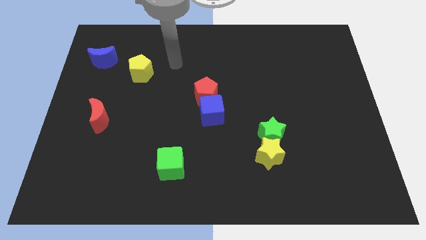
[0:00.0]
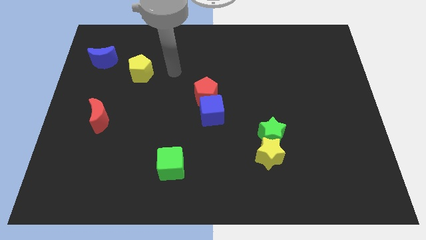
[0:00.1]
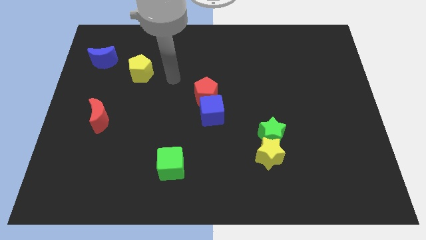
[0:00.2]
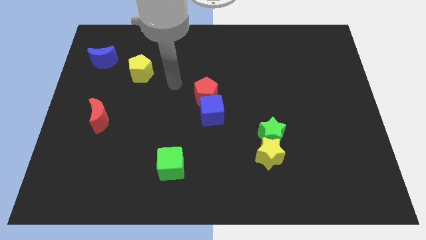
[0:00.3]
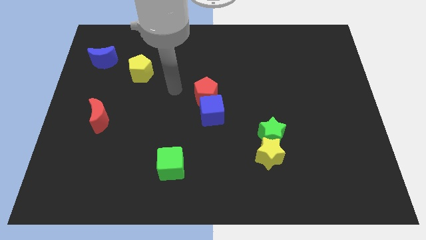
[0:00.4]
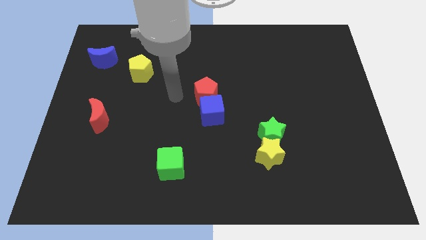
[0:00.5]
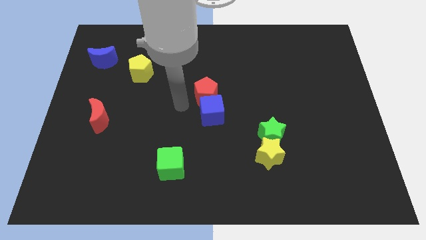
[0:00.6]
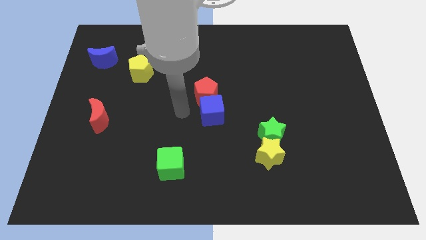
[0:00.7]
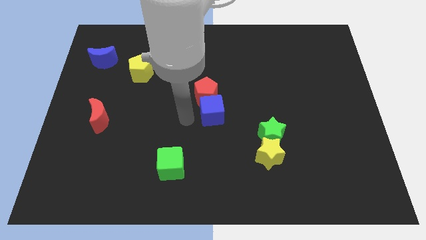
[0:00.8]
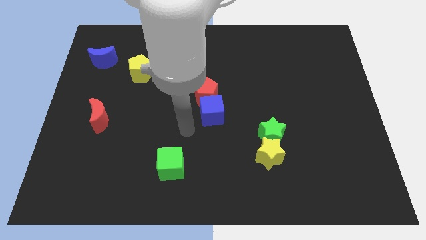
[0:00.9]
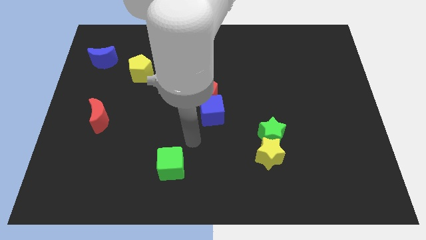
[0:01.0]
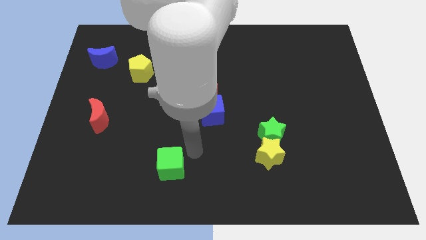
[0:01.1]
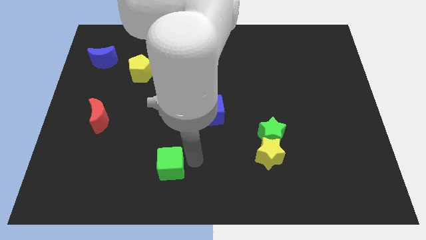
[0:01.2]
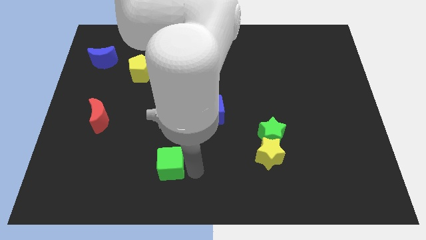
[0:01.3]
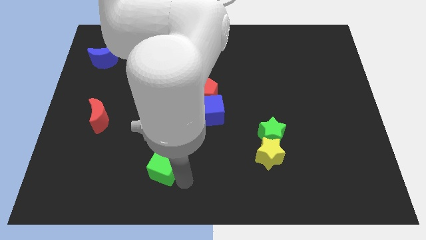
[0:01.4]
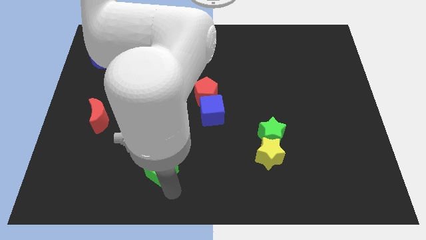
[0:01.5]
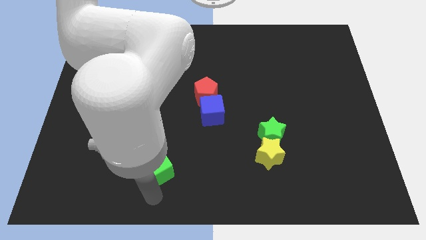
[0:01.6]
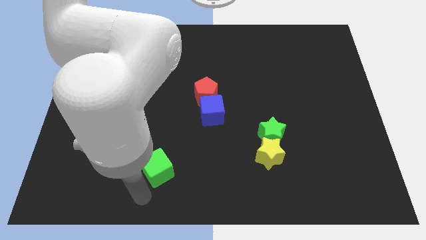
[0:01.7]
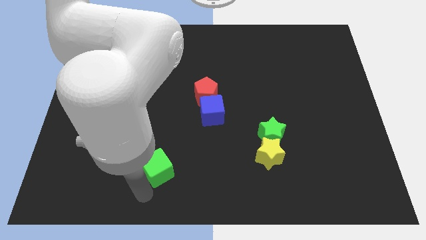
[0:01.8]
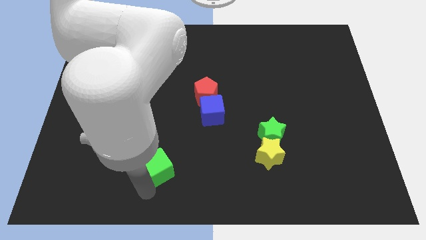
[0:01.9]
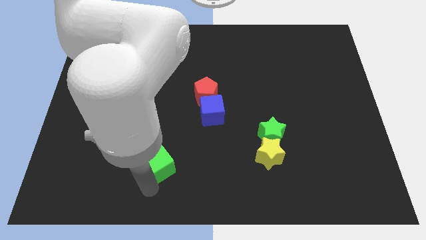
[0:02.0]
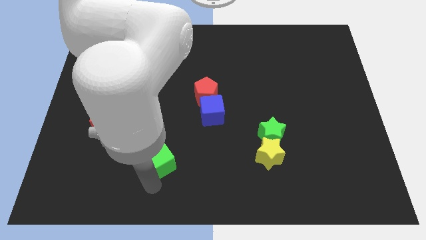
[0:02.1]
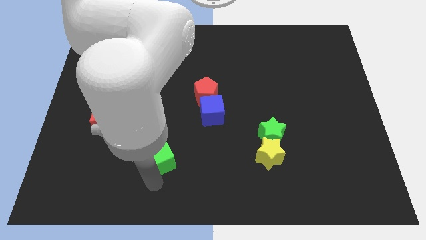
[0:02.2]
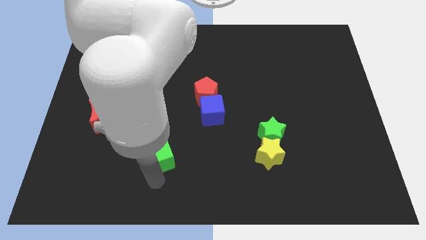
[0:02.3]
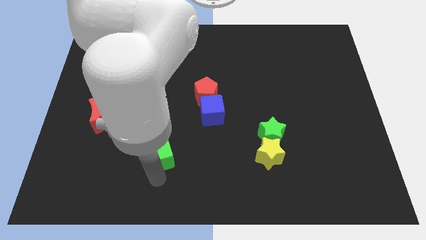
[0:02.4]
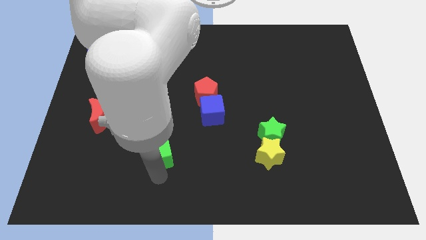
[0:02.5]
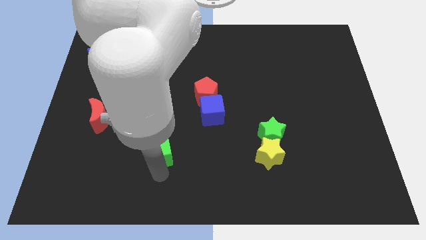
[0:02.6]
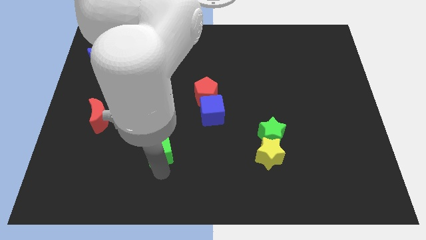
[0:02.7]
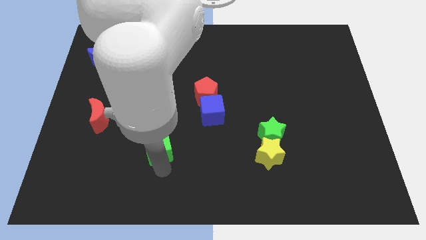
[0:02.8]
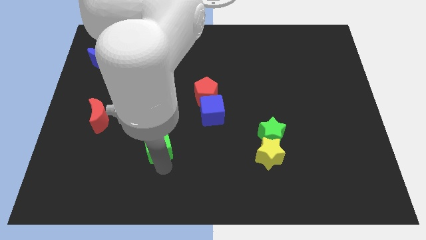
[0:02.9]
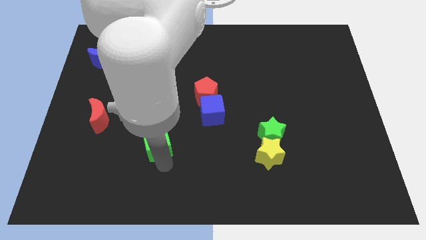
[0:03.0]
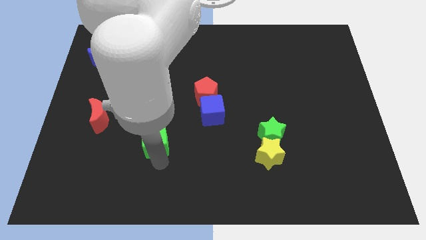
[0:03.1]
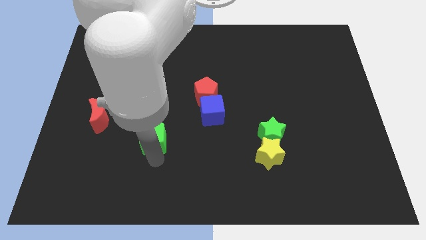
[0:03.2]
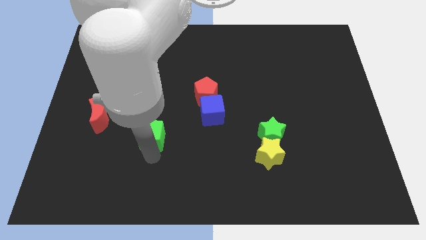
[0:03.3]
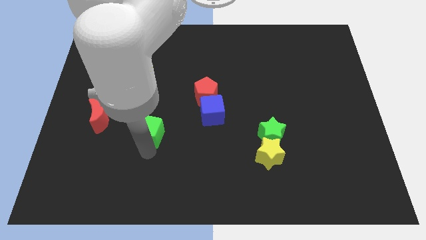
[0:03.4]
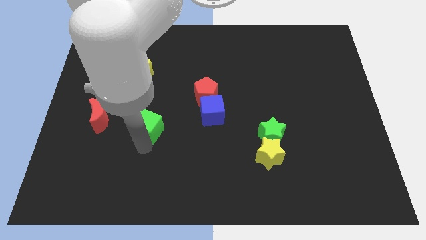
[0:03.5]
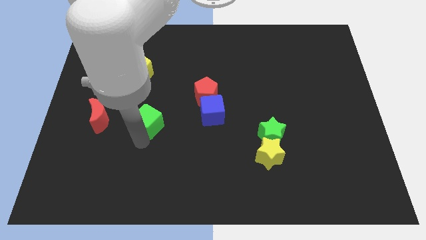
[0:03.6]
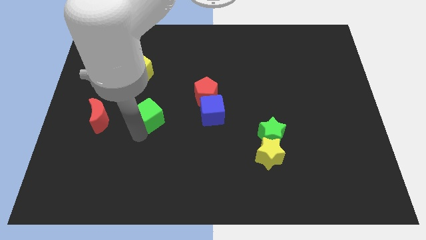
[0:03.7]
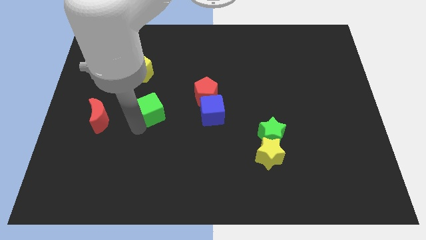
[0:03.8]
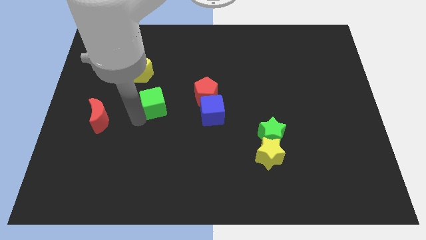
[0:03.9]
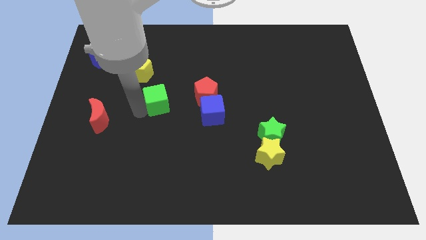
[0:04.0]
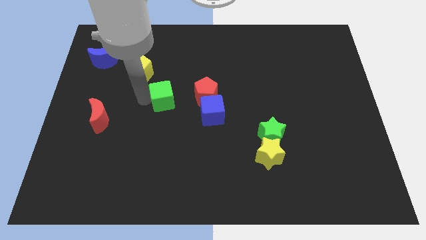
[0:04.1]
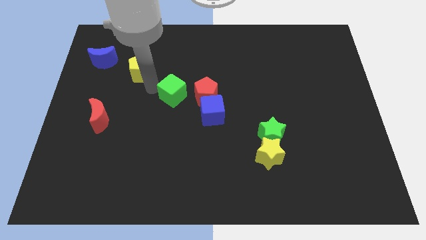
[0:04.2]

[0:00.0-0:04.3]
slide the green cube up

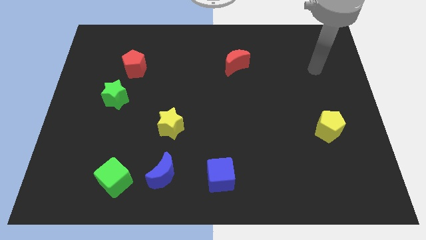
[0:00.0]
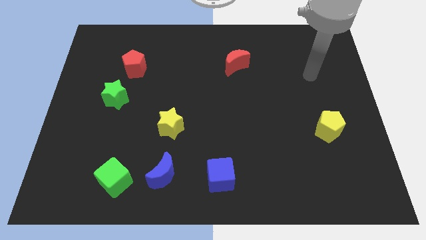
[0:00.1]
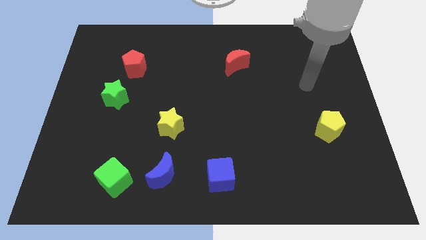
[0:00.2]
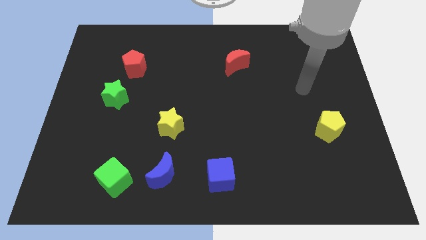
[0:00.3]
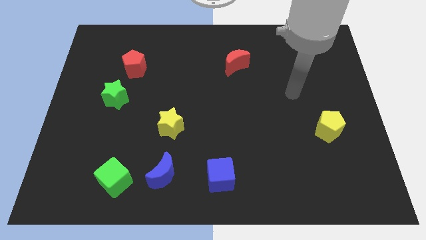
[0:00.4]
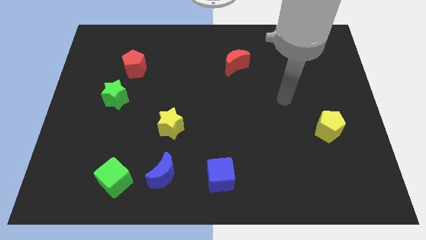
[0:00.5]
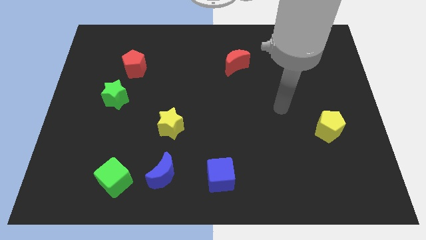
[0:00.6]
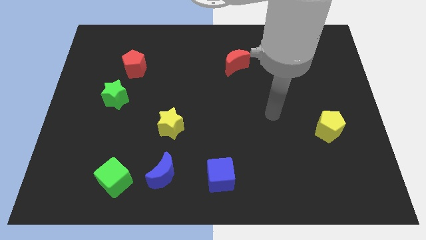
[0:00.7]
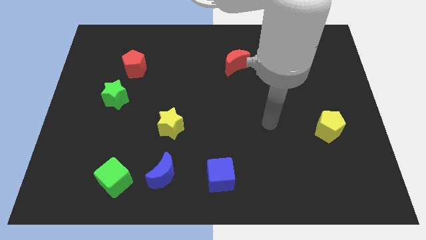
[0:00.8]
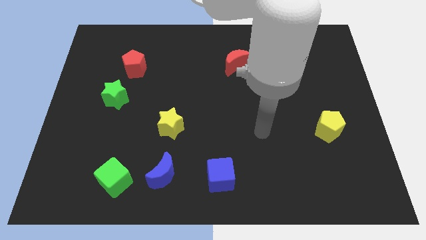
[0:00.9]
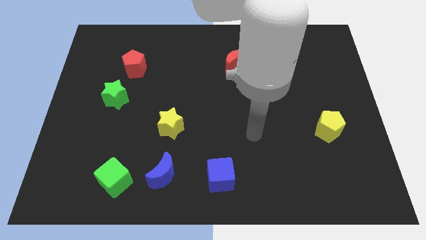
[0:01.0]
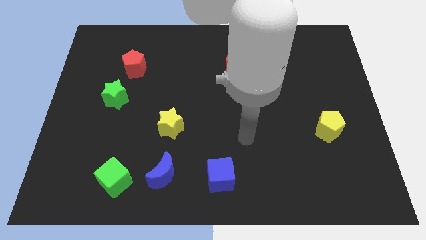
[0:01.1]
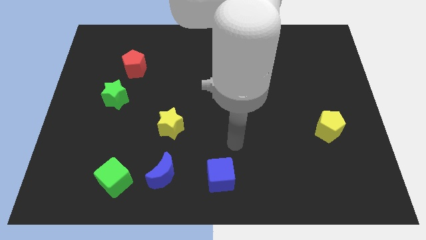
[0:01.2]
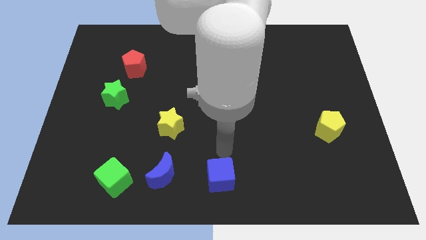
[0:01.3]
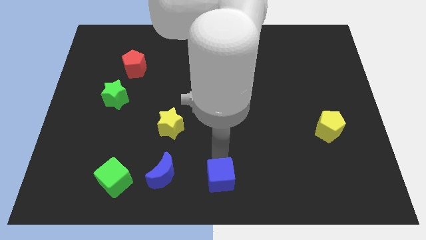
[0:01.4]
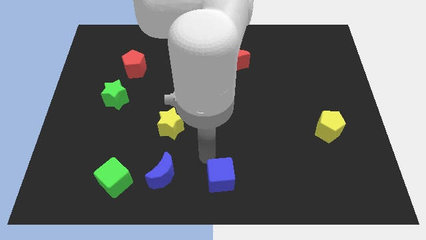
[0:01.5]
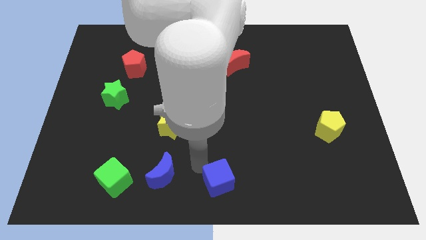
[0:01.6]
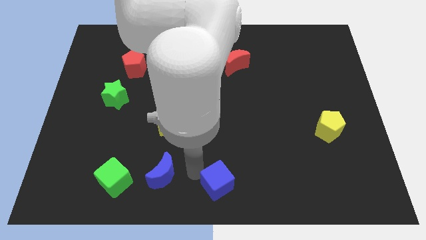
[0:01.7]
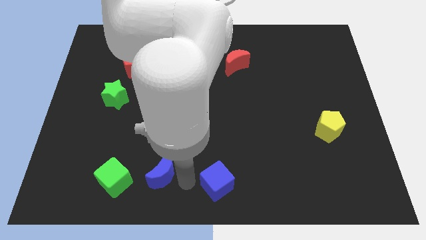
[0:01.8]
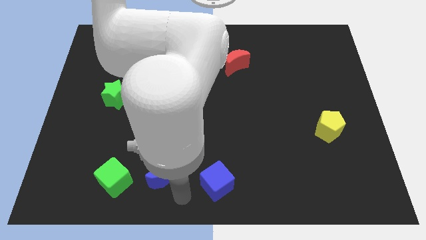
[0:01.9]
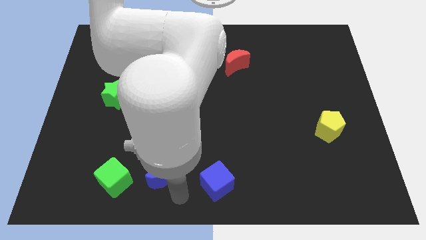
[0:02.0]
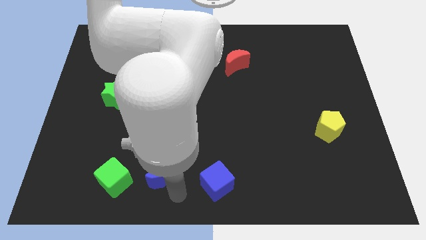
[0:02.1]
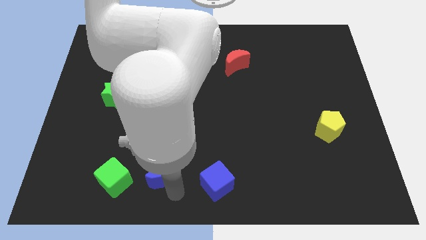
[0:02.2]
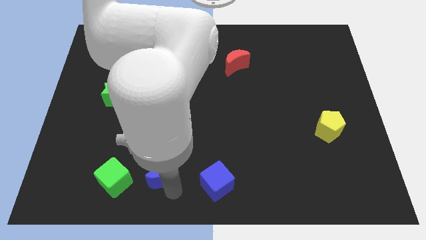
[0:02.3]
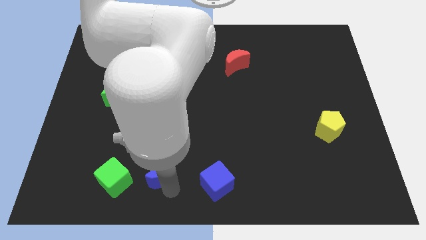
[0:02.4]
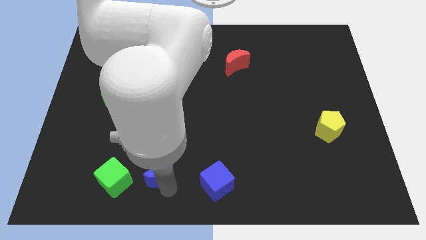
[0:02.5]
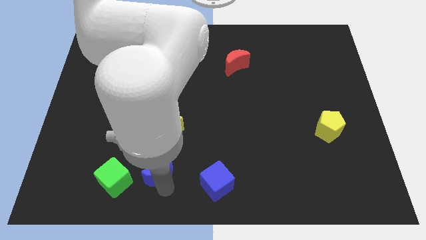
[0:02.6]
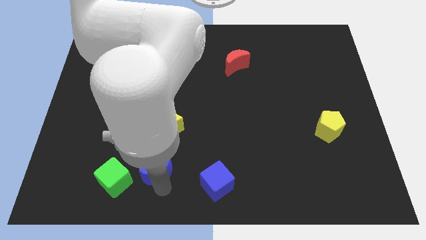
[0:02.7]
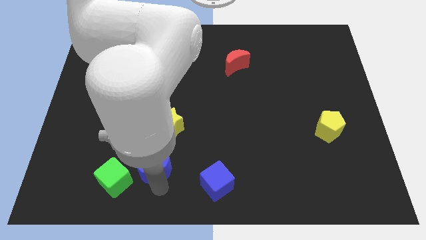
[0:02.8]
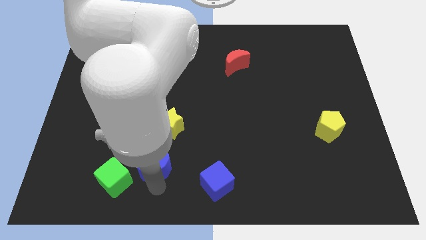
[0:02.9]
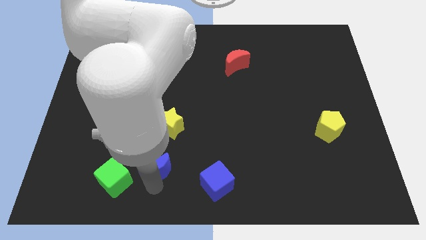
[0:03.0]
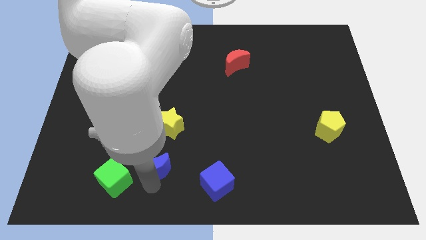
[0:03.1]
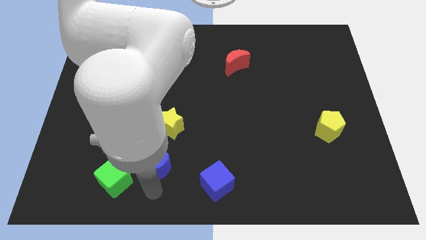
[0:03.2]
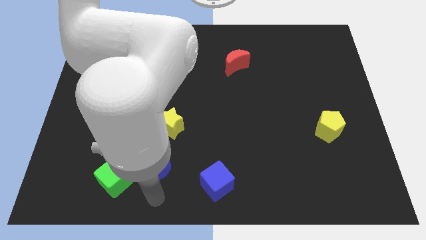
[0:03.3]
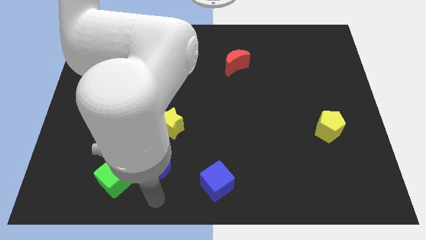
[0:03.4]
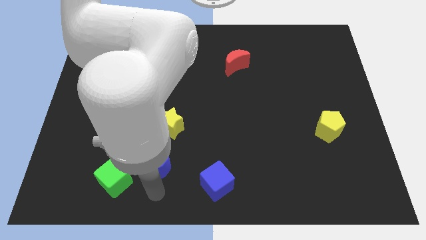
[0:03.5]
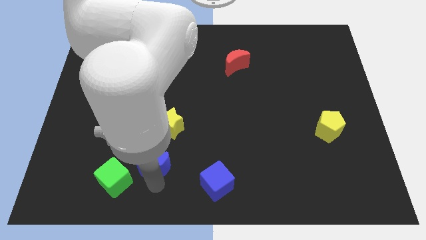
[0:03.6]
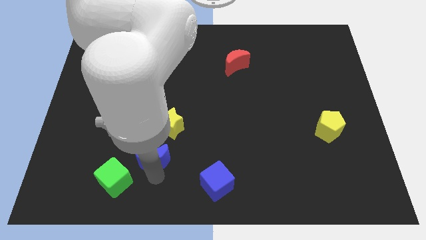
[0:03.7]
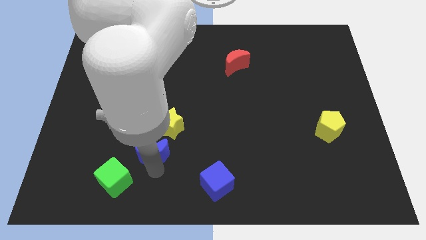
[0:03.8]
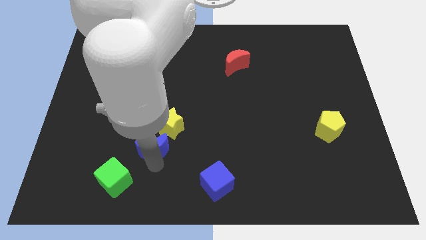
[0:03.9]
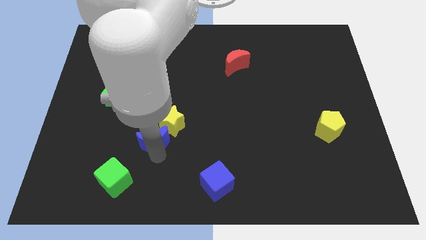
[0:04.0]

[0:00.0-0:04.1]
move the blue moon diagonally up and left somewhat
